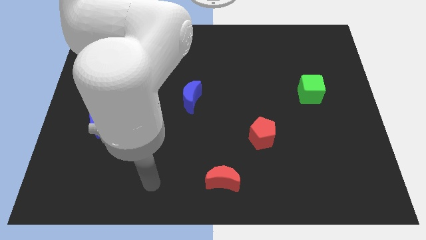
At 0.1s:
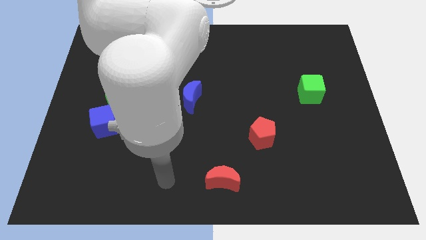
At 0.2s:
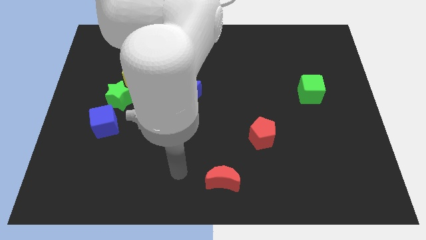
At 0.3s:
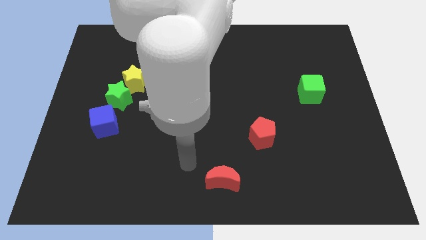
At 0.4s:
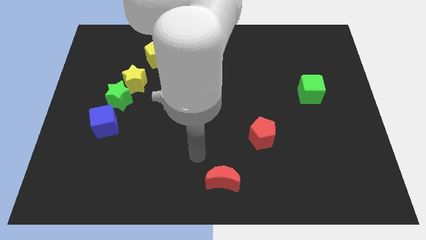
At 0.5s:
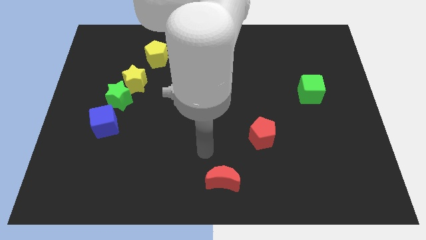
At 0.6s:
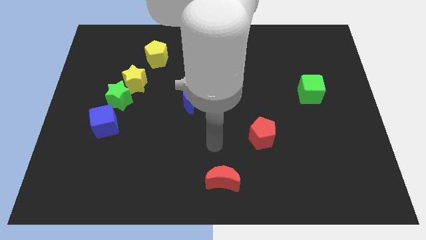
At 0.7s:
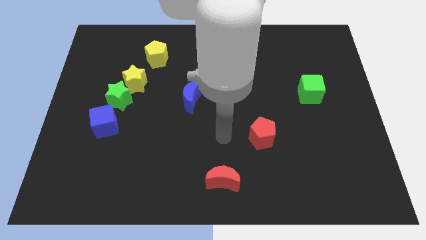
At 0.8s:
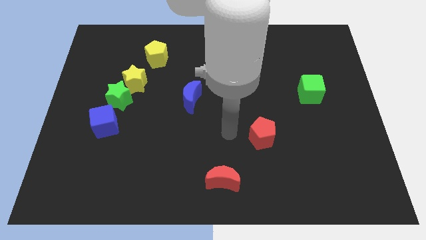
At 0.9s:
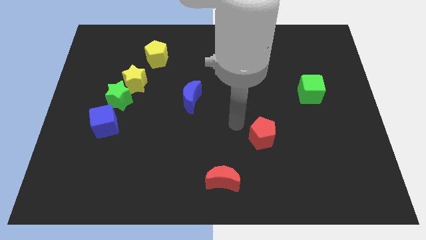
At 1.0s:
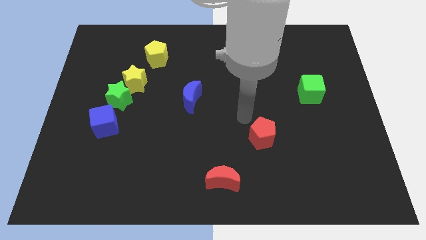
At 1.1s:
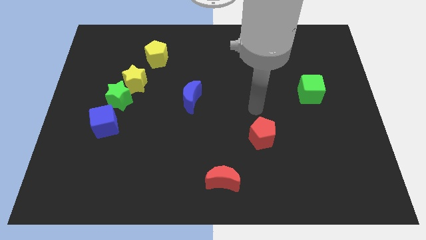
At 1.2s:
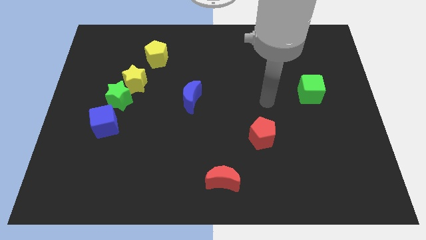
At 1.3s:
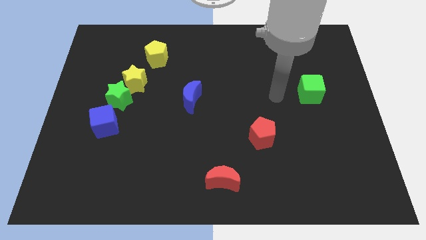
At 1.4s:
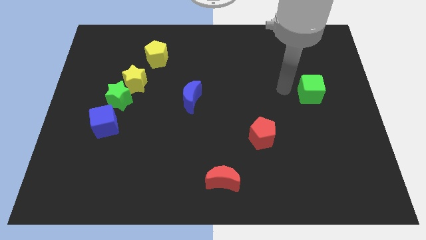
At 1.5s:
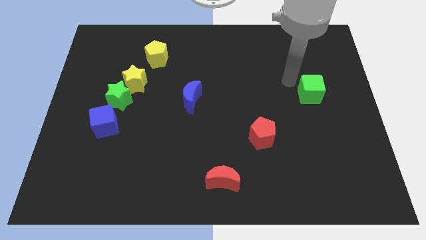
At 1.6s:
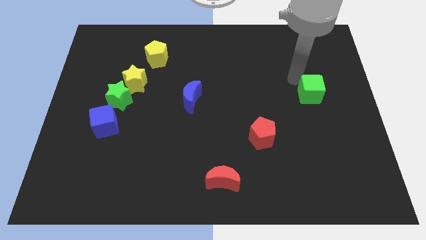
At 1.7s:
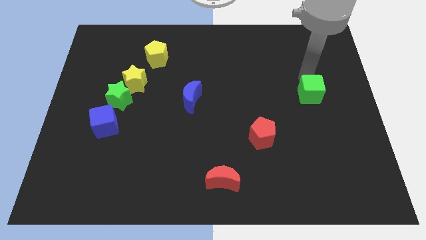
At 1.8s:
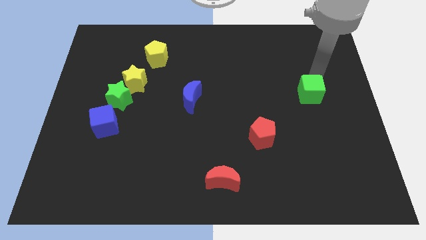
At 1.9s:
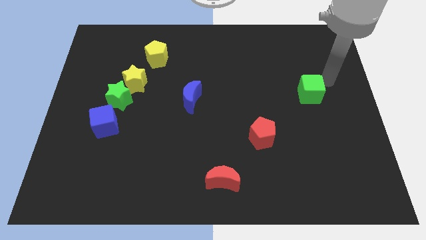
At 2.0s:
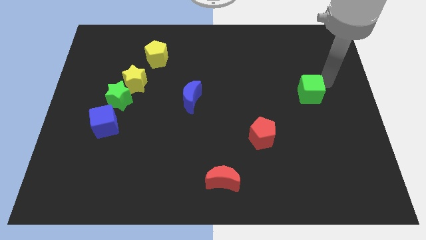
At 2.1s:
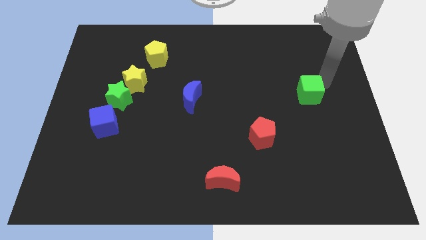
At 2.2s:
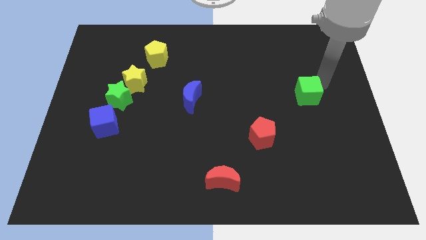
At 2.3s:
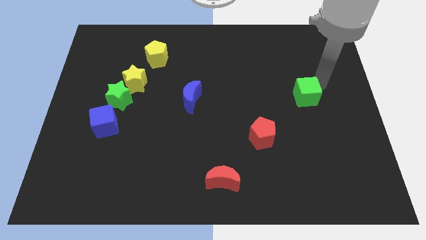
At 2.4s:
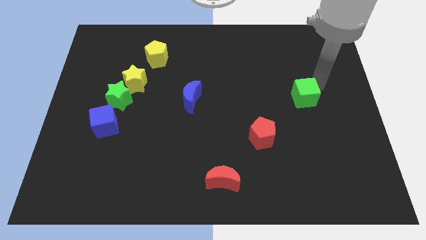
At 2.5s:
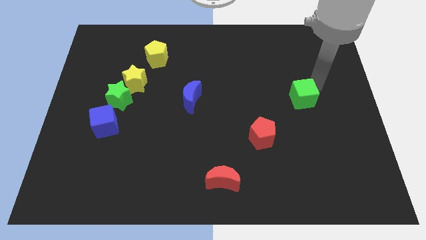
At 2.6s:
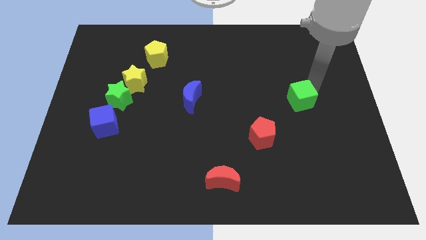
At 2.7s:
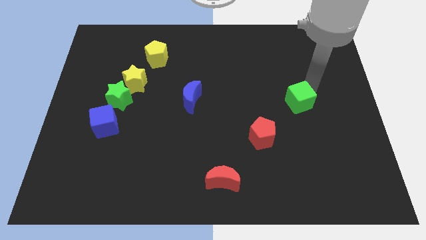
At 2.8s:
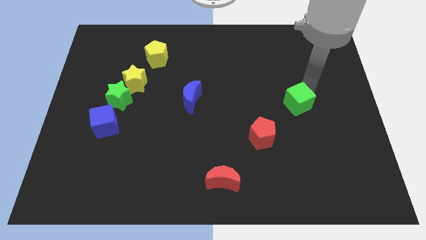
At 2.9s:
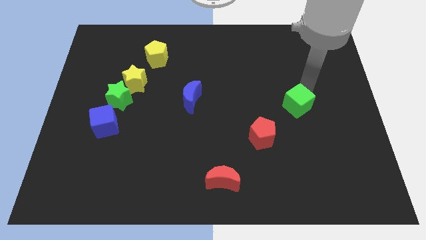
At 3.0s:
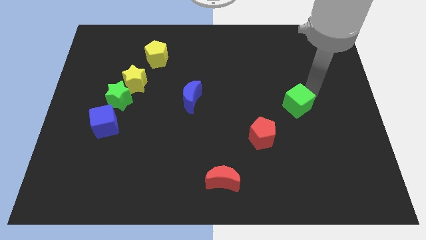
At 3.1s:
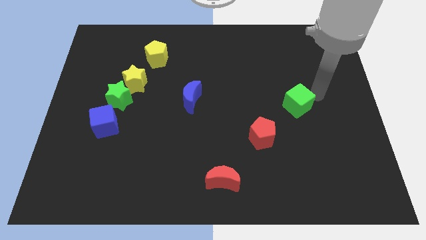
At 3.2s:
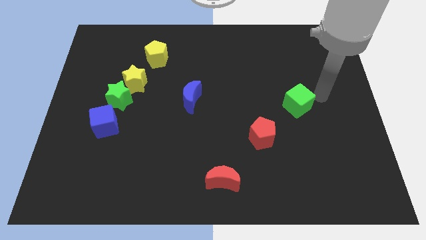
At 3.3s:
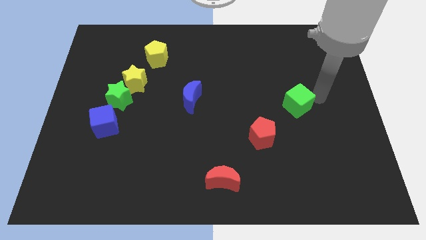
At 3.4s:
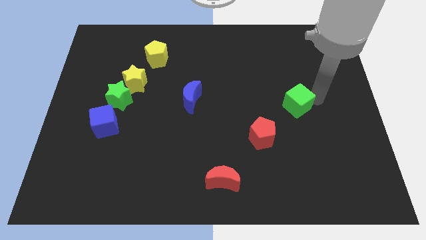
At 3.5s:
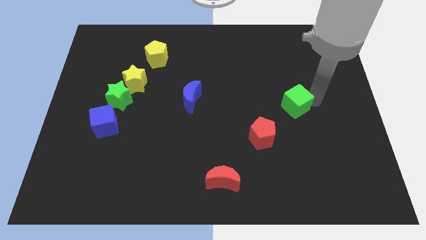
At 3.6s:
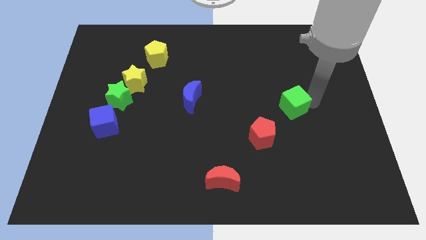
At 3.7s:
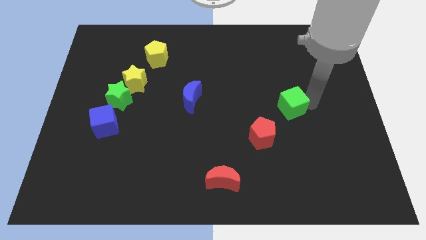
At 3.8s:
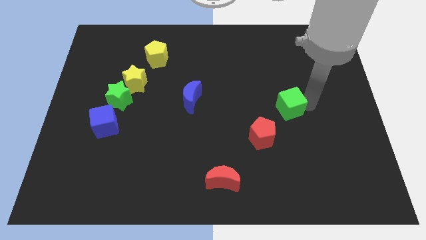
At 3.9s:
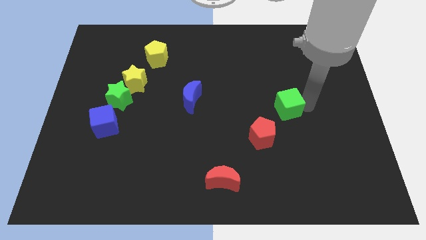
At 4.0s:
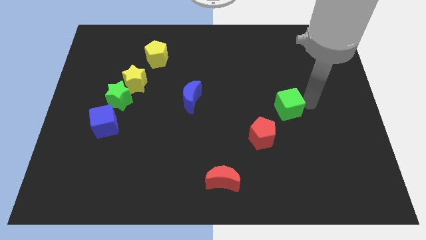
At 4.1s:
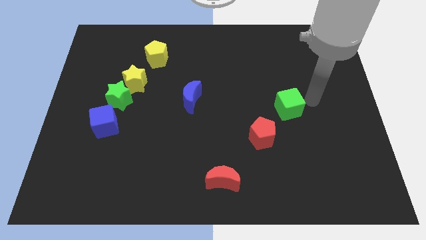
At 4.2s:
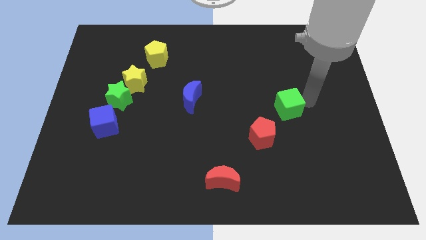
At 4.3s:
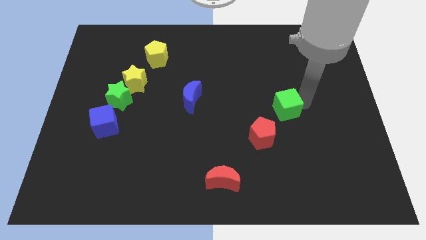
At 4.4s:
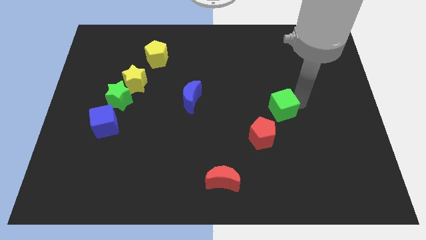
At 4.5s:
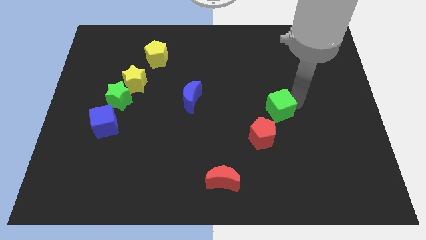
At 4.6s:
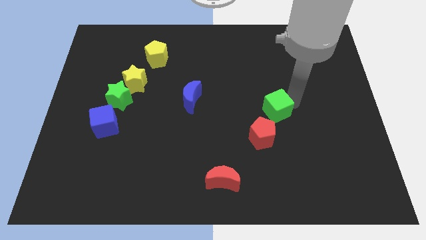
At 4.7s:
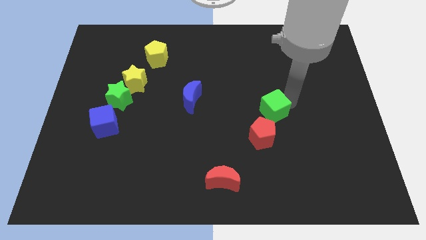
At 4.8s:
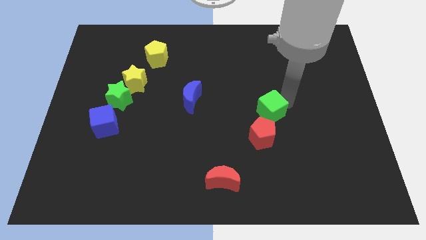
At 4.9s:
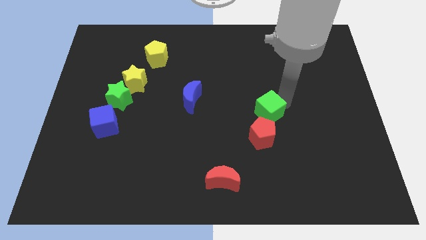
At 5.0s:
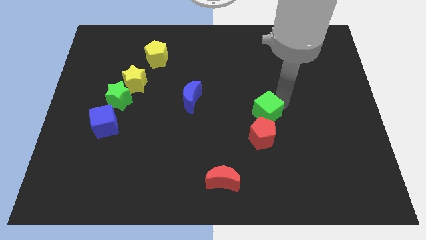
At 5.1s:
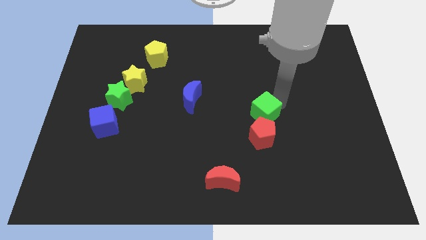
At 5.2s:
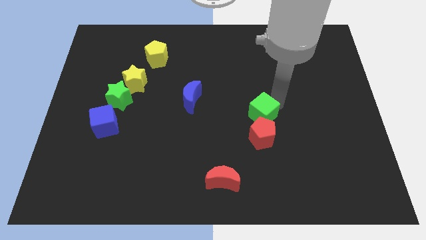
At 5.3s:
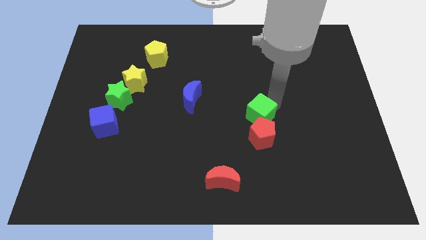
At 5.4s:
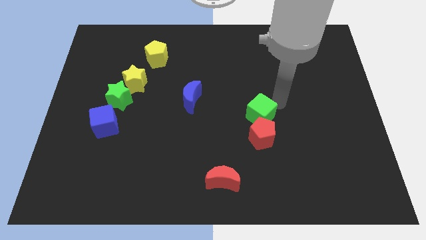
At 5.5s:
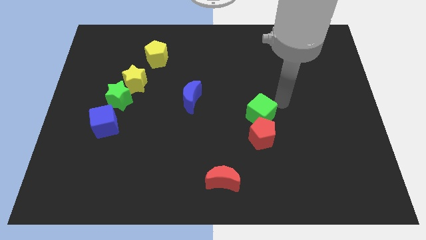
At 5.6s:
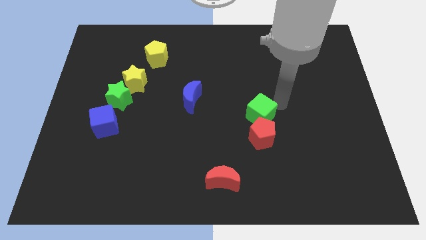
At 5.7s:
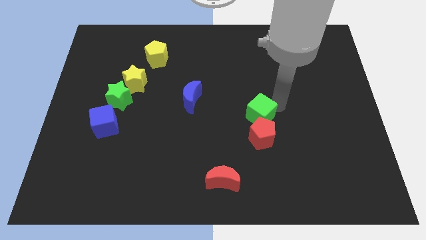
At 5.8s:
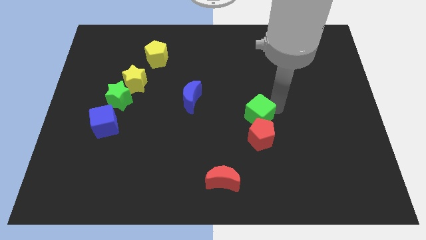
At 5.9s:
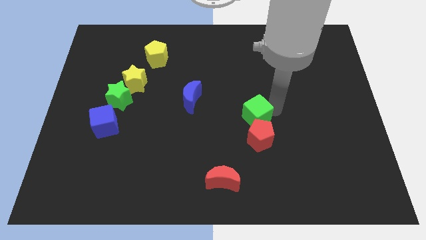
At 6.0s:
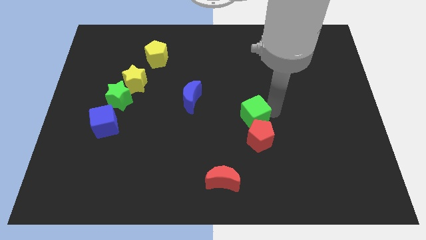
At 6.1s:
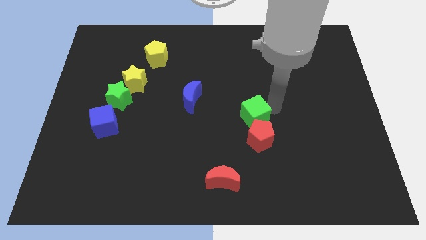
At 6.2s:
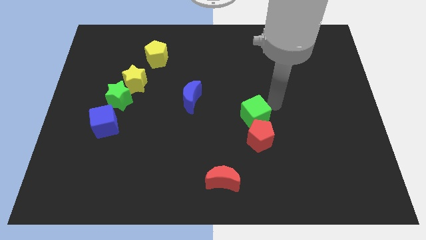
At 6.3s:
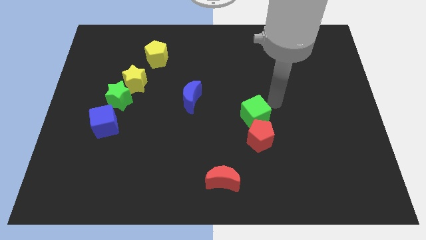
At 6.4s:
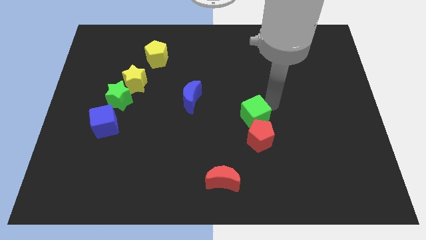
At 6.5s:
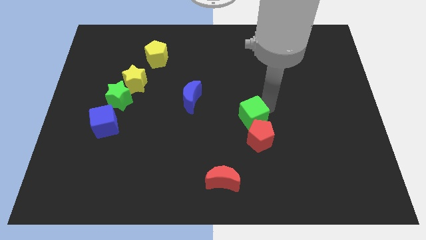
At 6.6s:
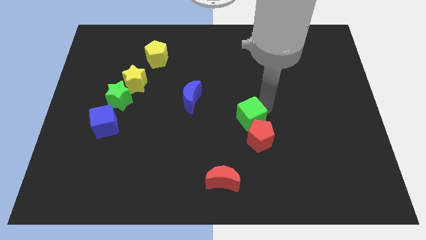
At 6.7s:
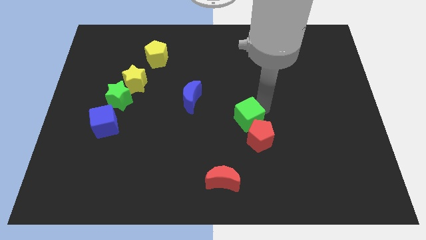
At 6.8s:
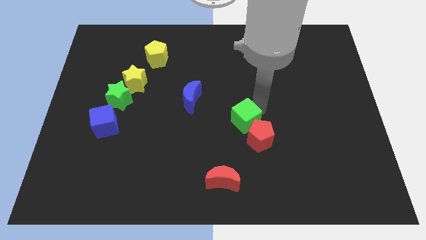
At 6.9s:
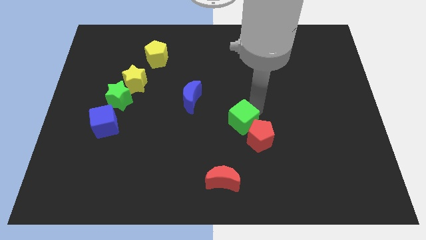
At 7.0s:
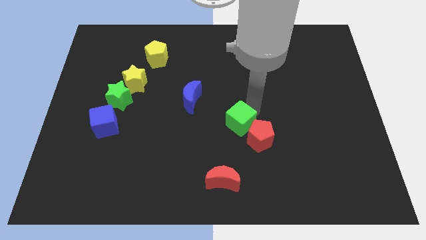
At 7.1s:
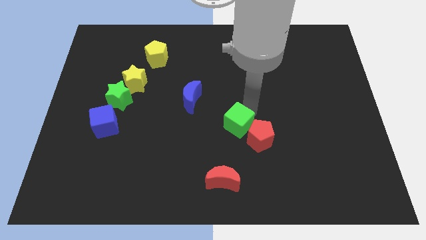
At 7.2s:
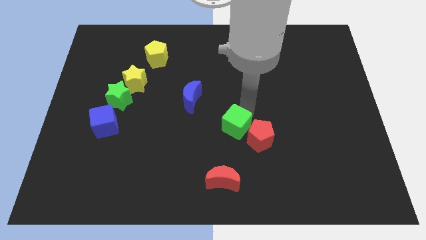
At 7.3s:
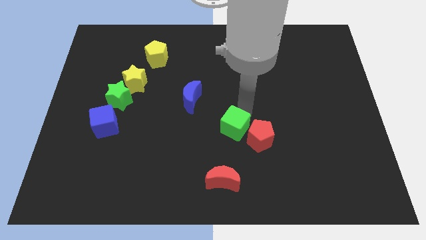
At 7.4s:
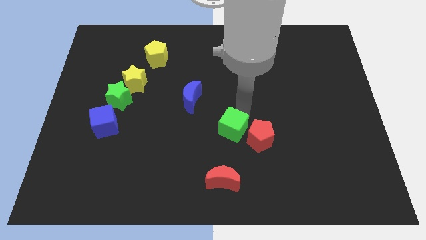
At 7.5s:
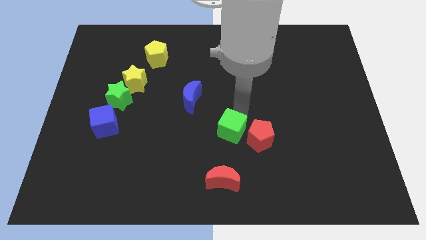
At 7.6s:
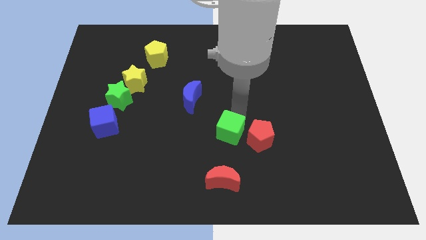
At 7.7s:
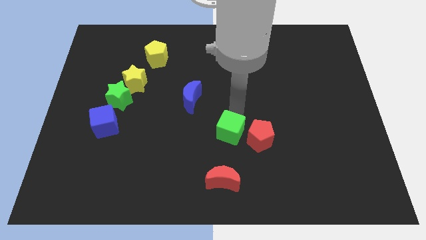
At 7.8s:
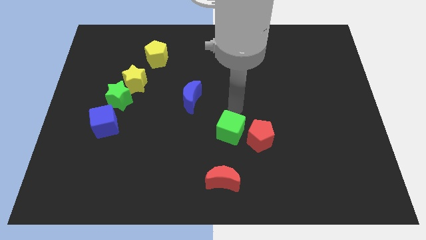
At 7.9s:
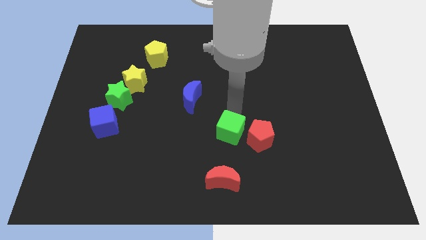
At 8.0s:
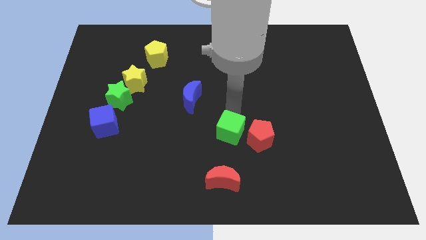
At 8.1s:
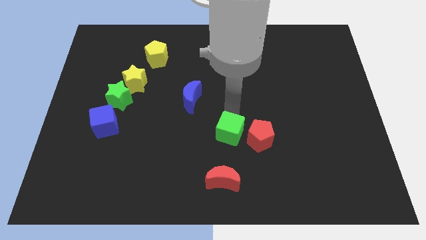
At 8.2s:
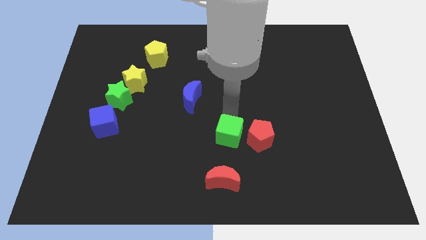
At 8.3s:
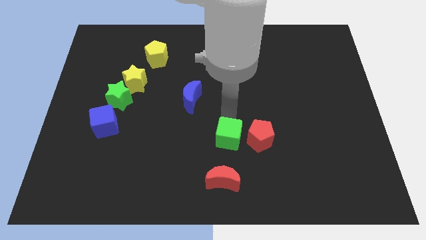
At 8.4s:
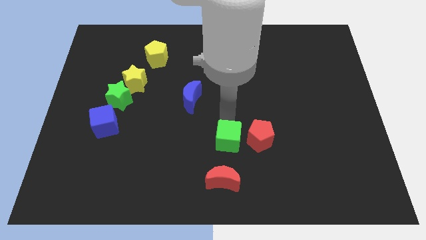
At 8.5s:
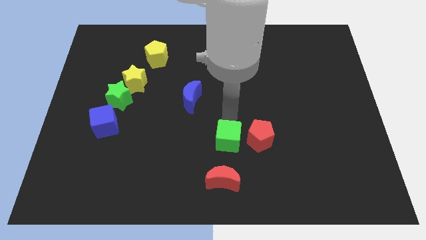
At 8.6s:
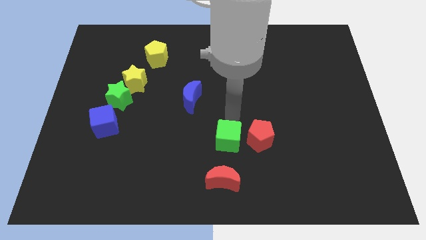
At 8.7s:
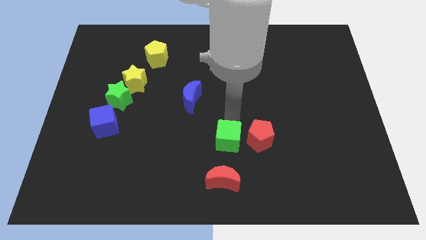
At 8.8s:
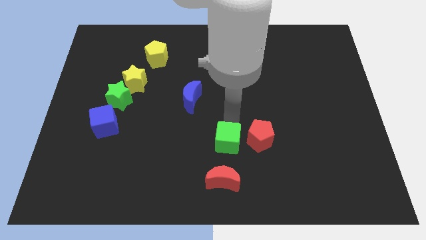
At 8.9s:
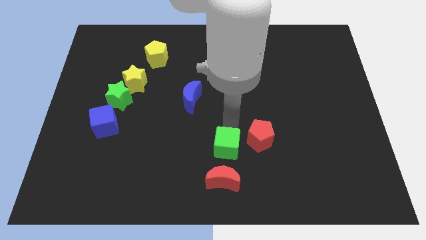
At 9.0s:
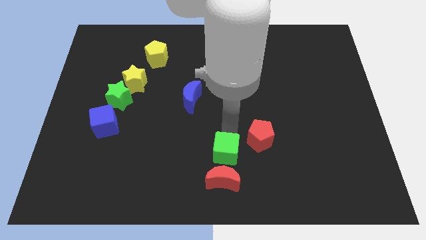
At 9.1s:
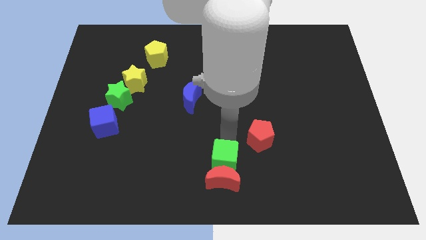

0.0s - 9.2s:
slide the green cube towards the red moon
